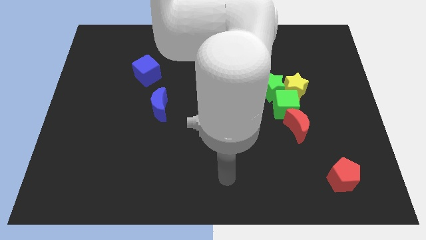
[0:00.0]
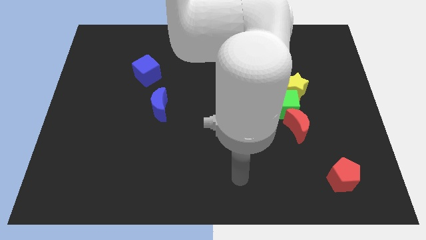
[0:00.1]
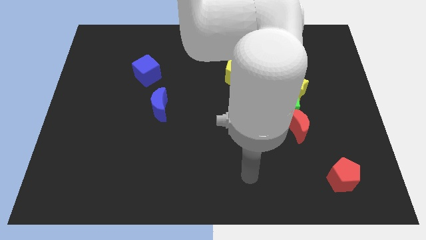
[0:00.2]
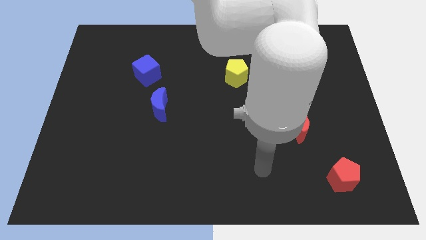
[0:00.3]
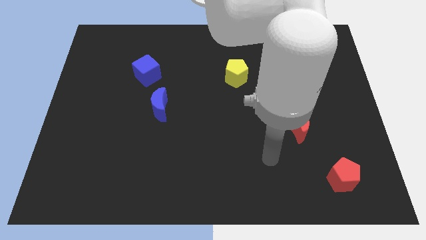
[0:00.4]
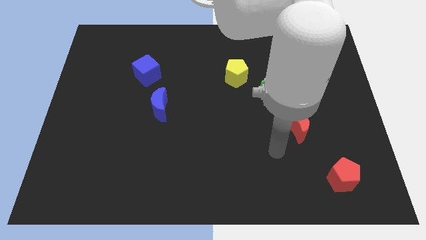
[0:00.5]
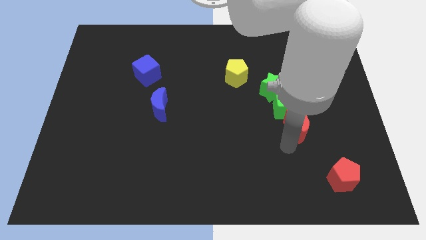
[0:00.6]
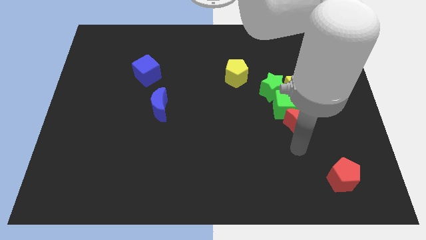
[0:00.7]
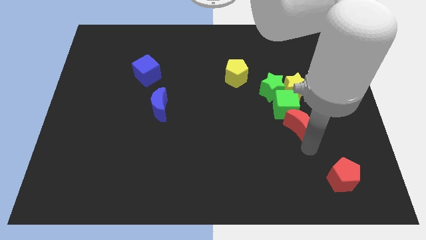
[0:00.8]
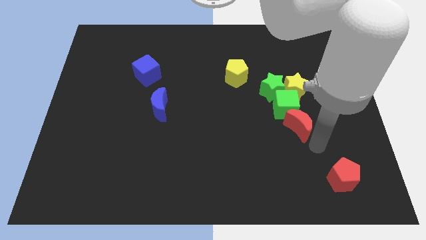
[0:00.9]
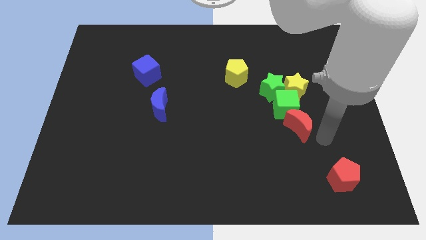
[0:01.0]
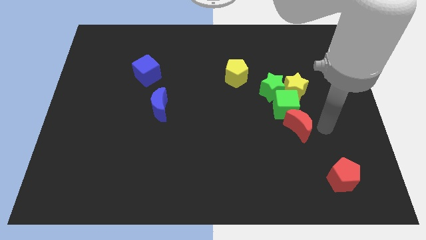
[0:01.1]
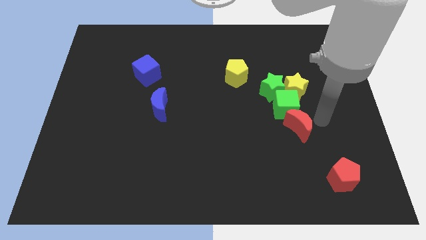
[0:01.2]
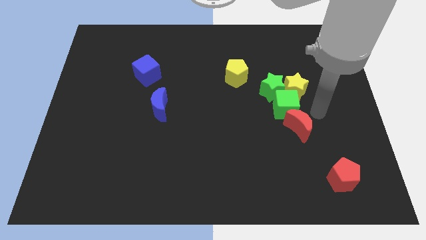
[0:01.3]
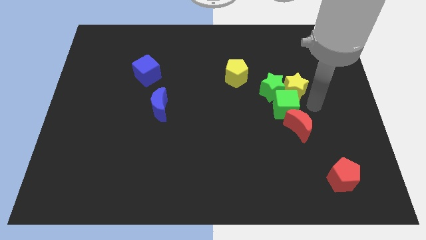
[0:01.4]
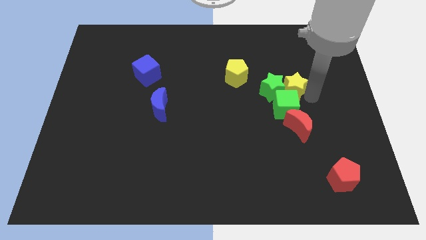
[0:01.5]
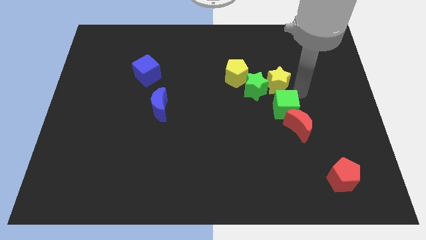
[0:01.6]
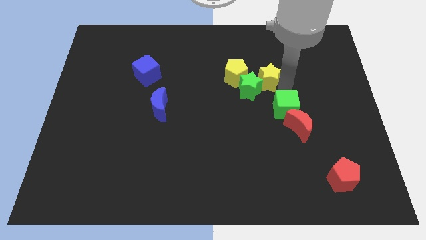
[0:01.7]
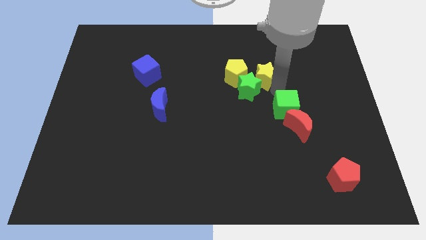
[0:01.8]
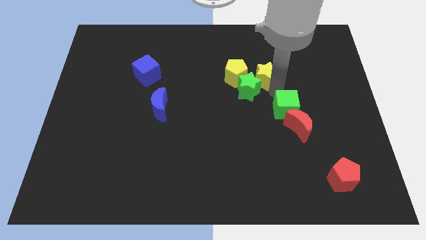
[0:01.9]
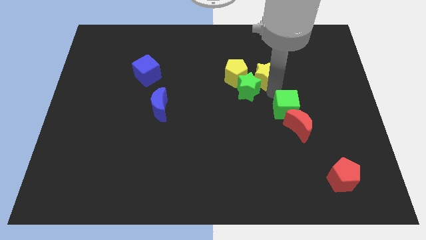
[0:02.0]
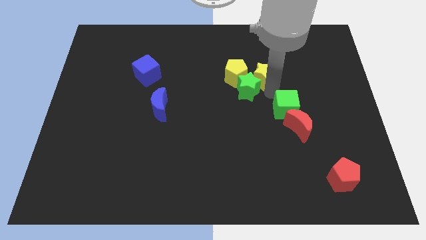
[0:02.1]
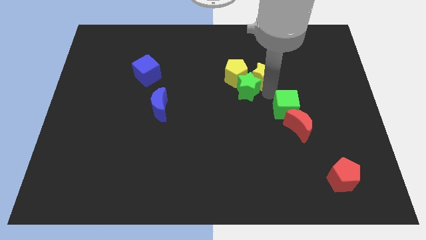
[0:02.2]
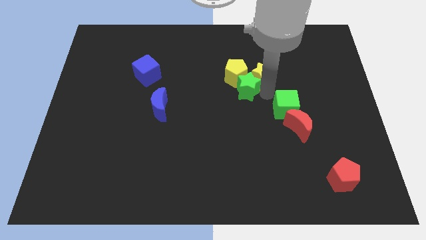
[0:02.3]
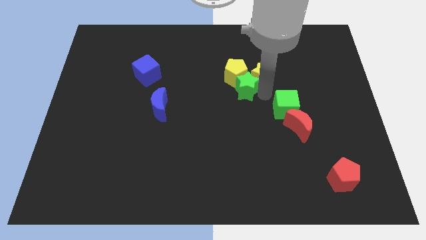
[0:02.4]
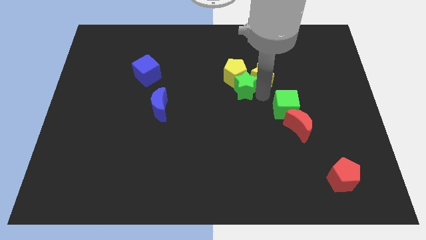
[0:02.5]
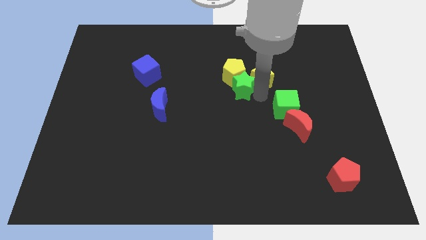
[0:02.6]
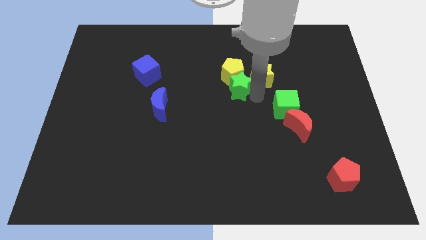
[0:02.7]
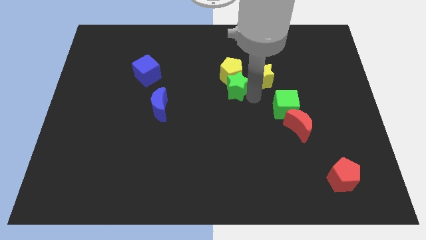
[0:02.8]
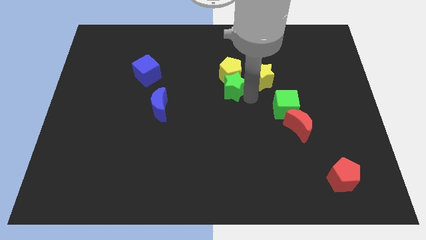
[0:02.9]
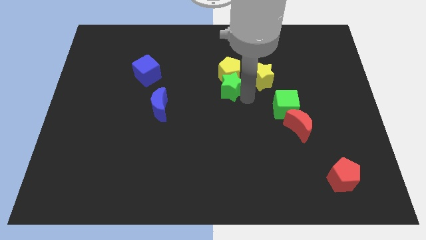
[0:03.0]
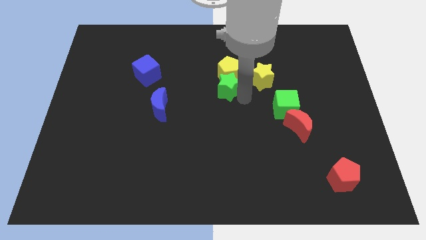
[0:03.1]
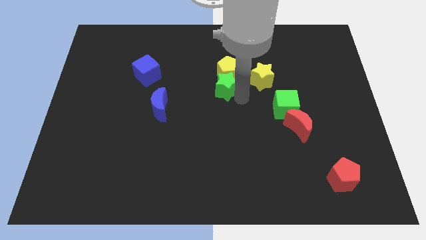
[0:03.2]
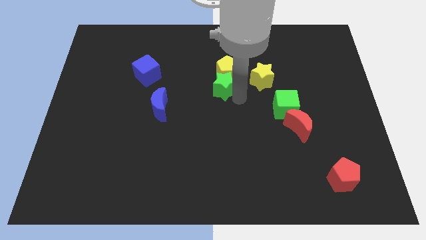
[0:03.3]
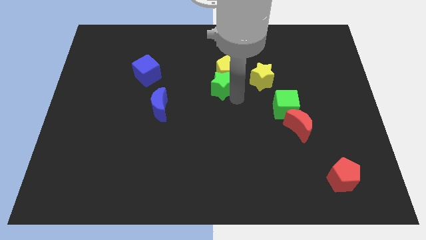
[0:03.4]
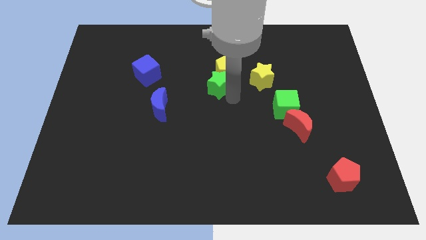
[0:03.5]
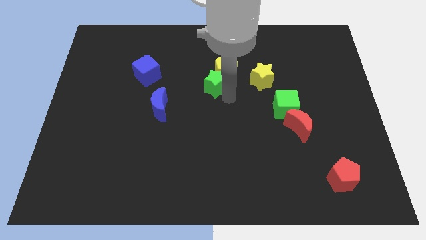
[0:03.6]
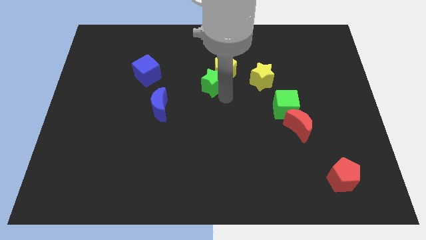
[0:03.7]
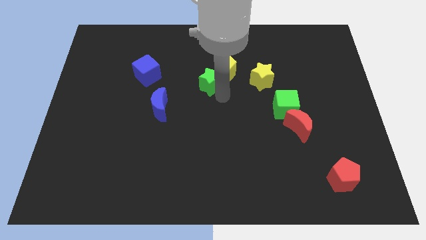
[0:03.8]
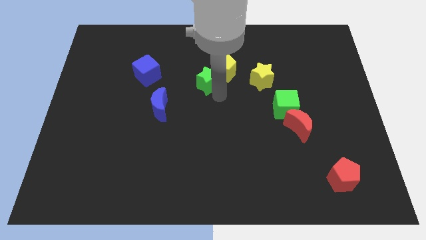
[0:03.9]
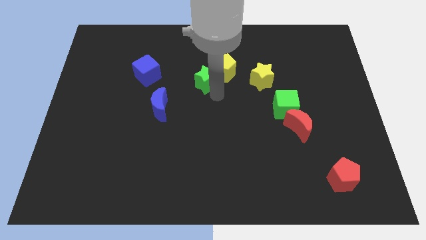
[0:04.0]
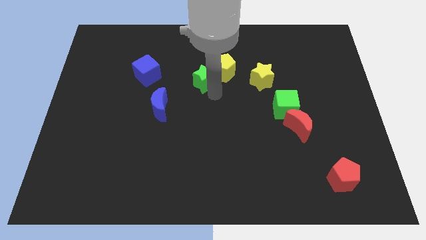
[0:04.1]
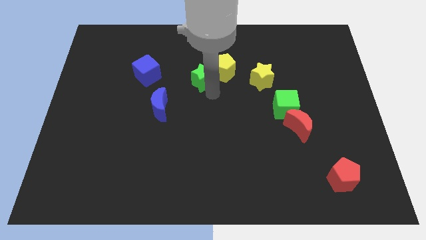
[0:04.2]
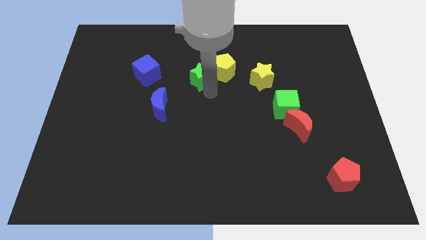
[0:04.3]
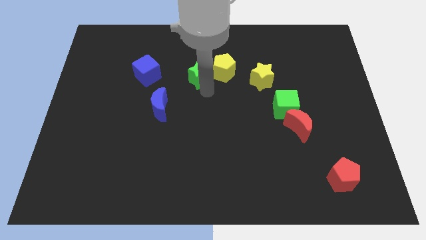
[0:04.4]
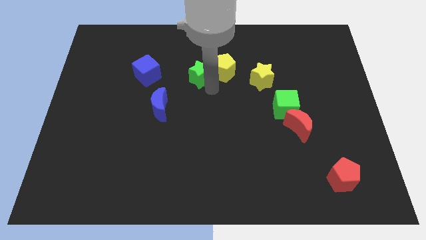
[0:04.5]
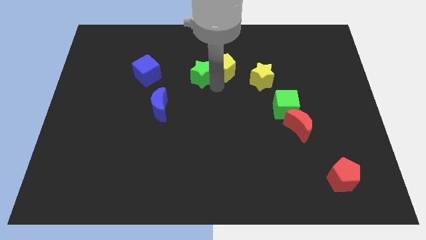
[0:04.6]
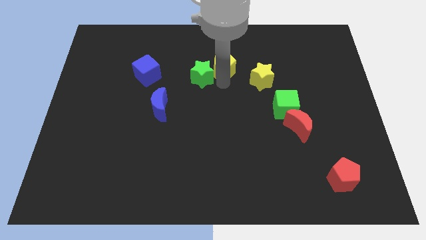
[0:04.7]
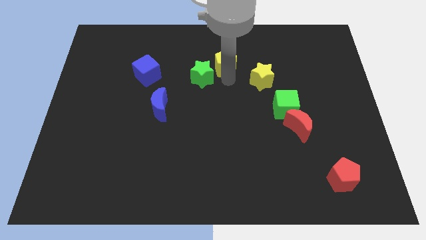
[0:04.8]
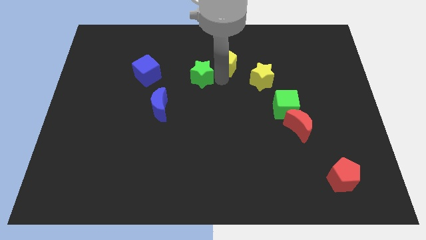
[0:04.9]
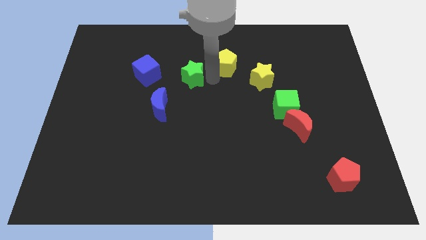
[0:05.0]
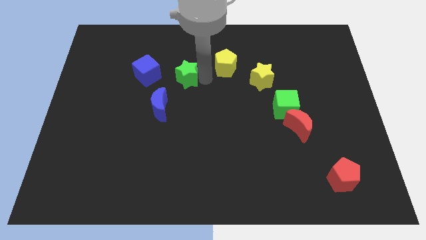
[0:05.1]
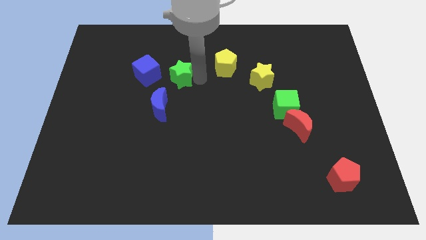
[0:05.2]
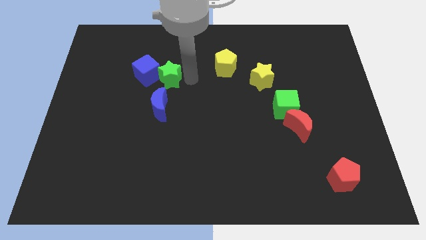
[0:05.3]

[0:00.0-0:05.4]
move the green star to the blue cube

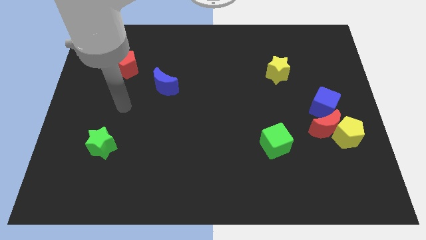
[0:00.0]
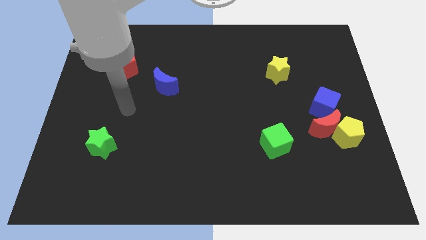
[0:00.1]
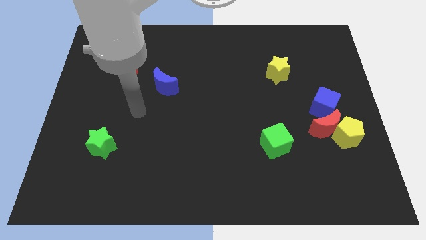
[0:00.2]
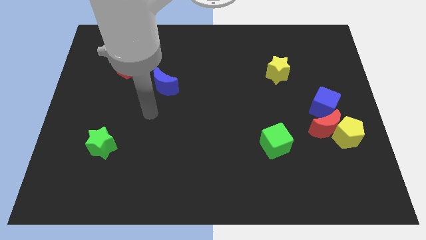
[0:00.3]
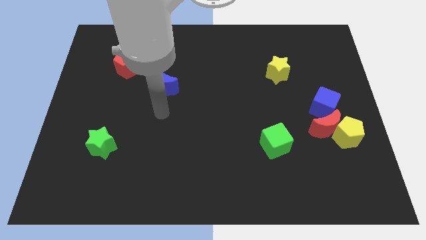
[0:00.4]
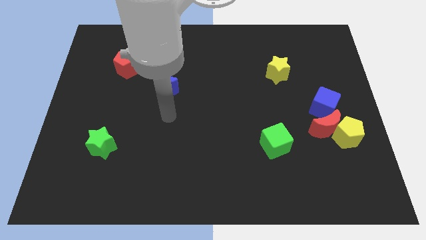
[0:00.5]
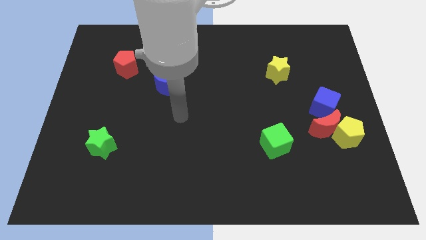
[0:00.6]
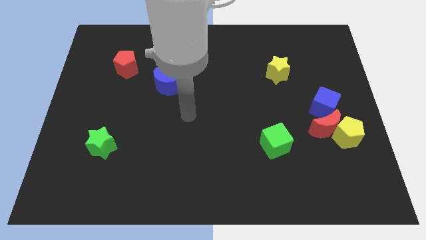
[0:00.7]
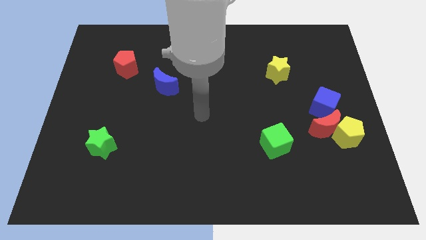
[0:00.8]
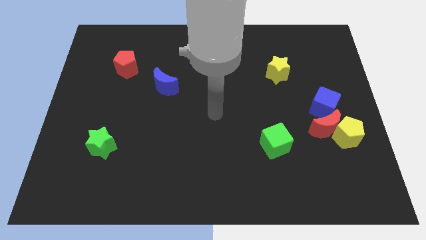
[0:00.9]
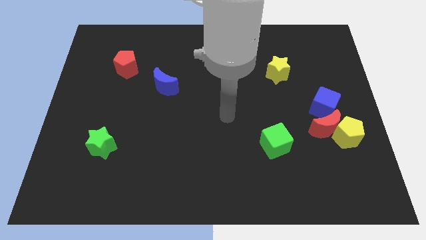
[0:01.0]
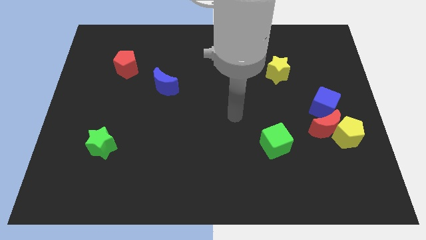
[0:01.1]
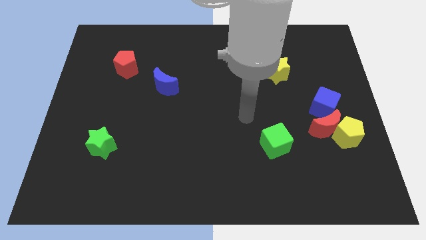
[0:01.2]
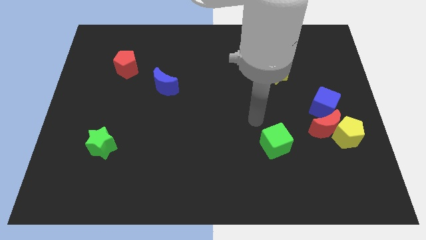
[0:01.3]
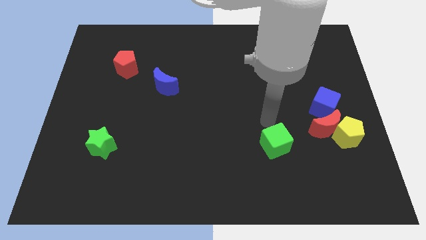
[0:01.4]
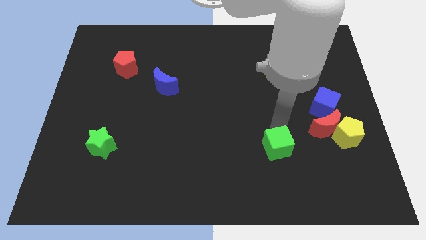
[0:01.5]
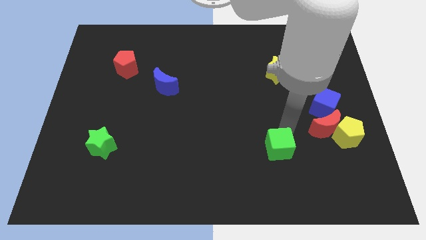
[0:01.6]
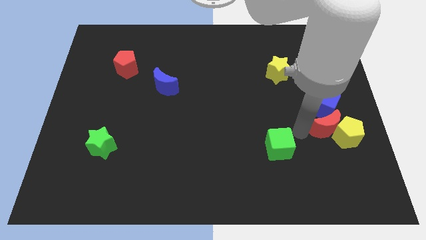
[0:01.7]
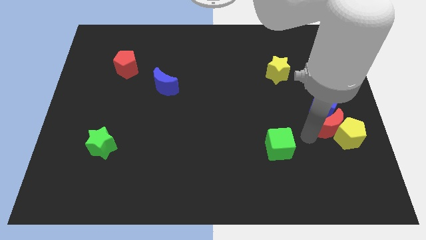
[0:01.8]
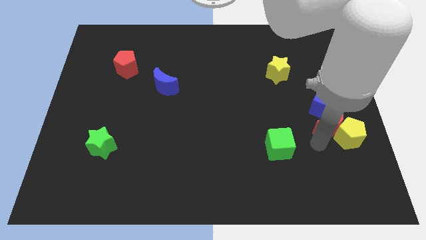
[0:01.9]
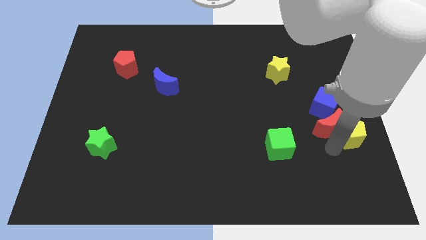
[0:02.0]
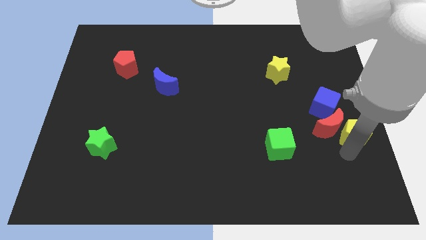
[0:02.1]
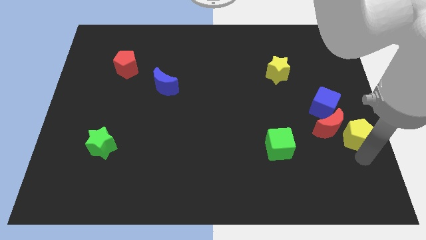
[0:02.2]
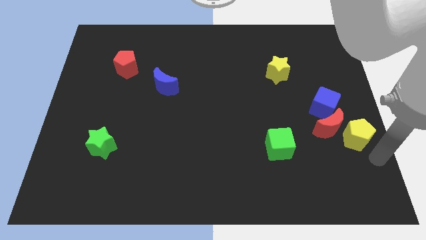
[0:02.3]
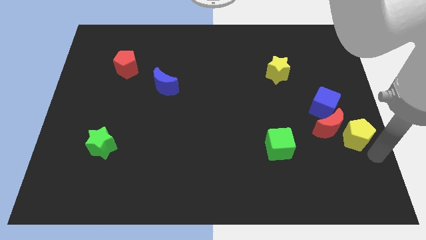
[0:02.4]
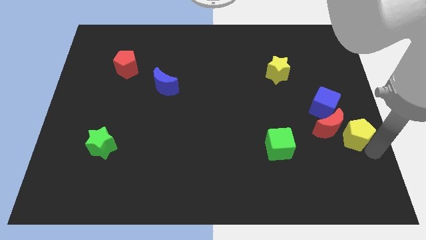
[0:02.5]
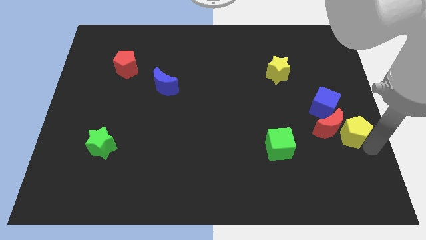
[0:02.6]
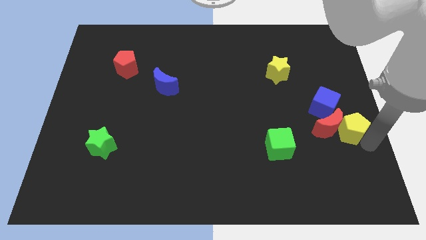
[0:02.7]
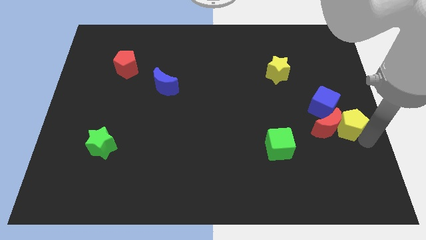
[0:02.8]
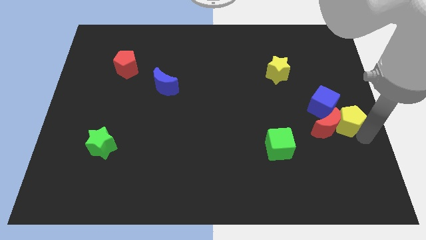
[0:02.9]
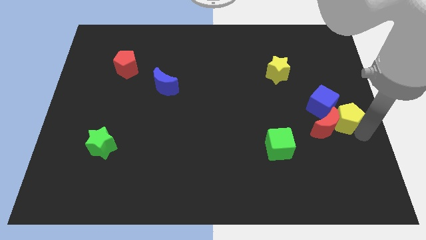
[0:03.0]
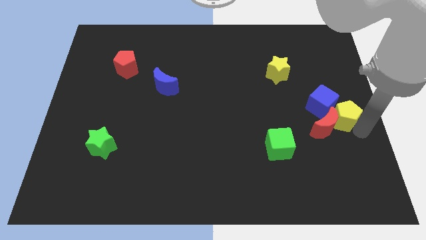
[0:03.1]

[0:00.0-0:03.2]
slide the yellow pentagon next to the blue cube
